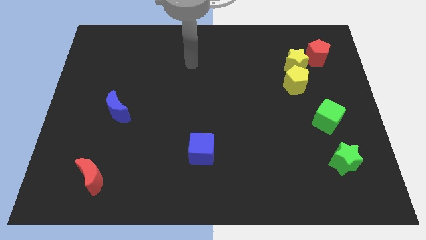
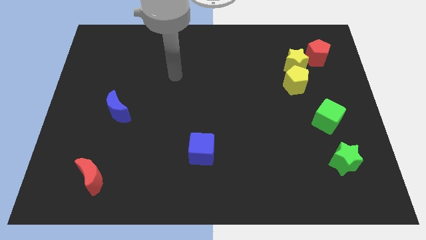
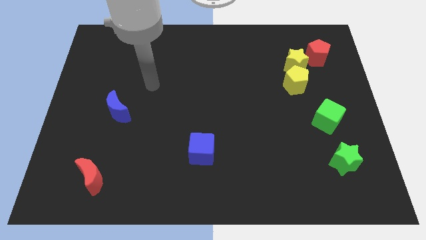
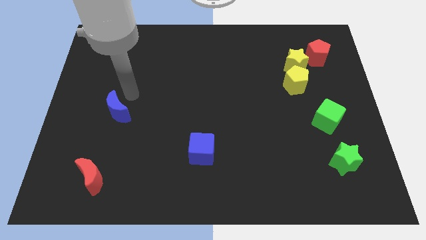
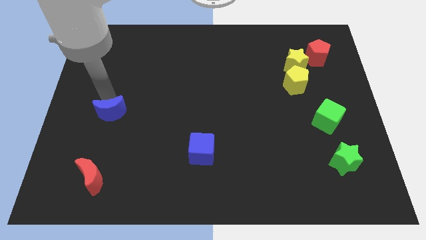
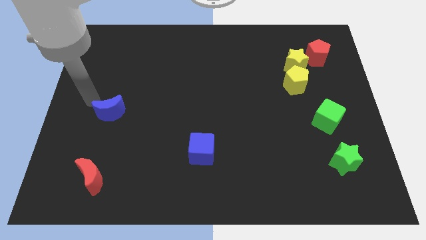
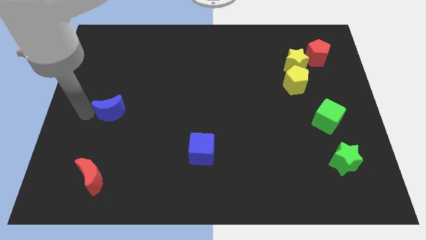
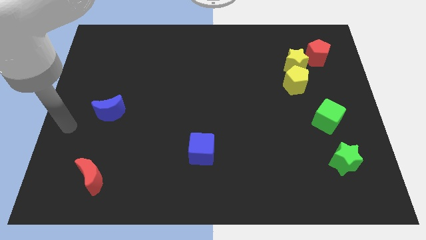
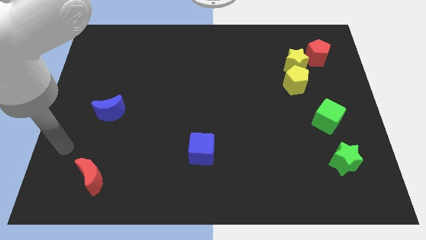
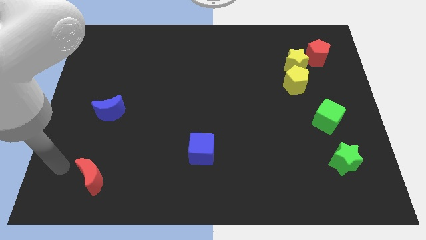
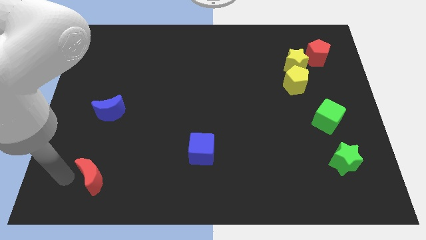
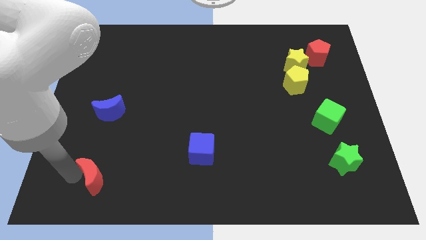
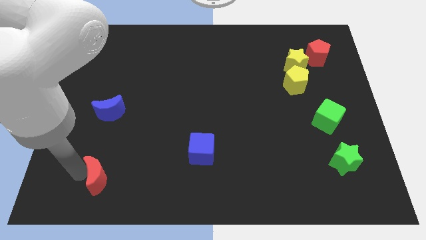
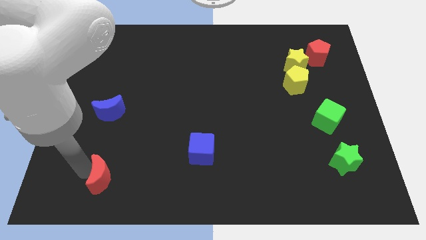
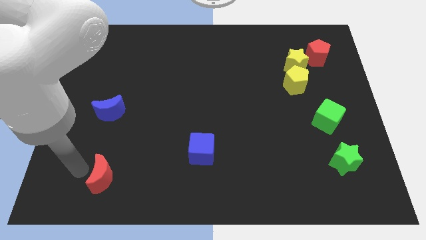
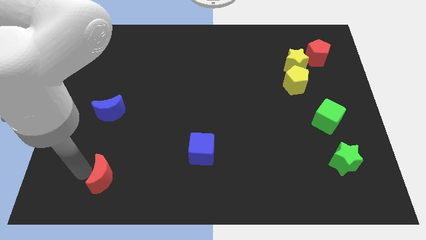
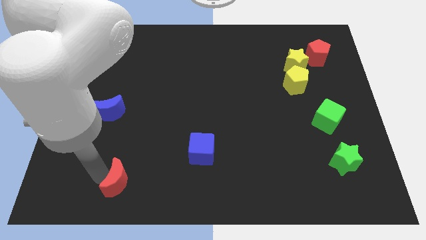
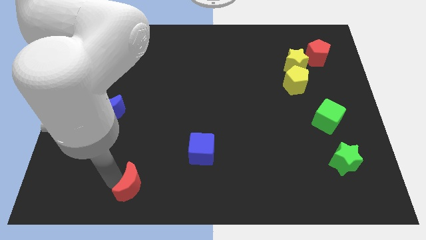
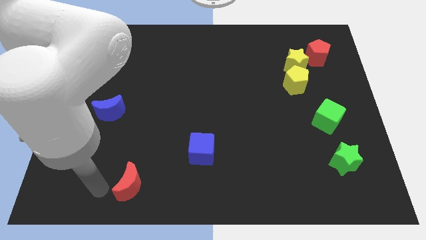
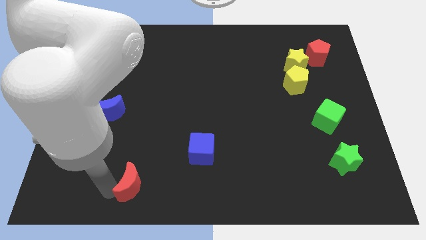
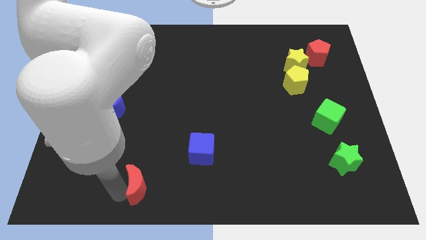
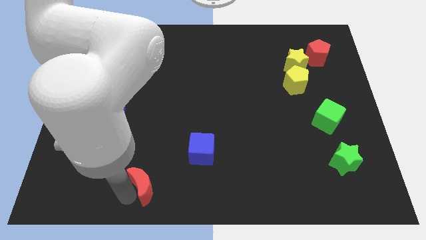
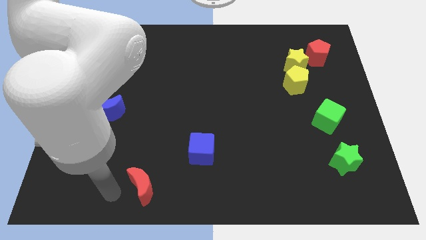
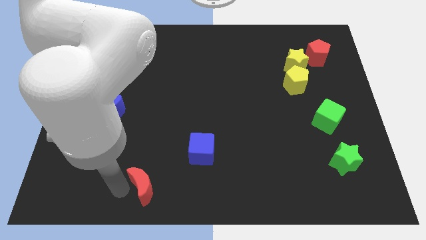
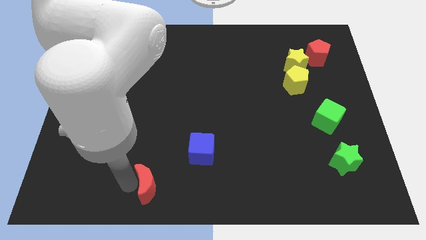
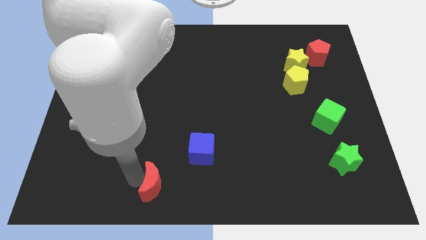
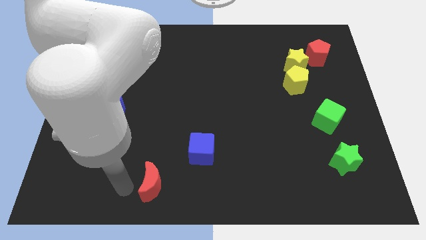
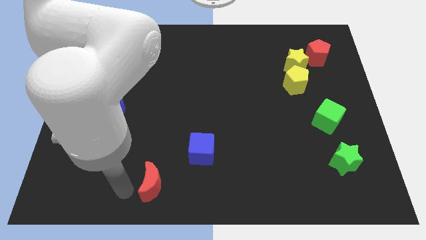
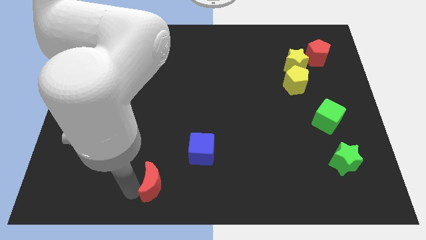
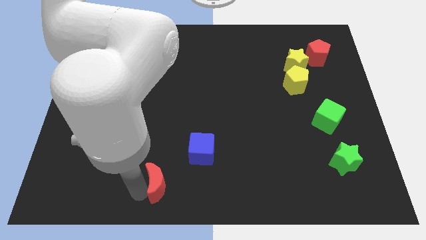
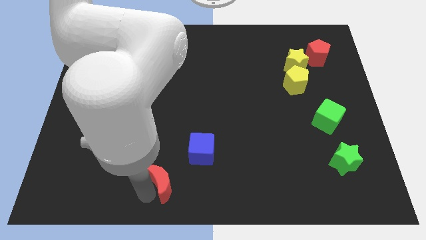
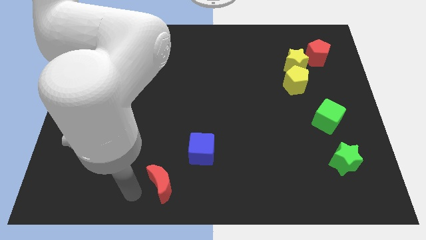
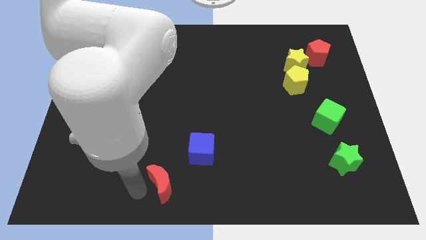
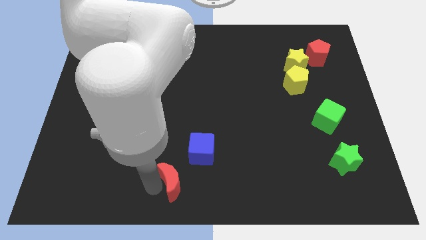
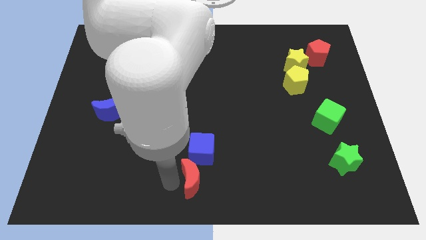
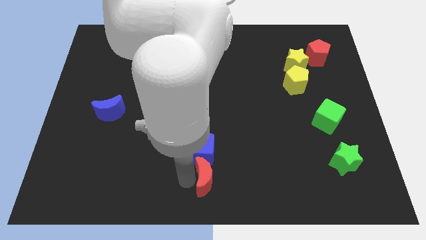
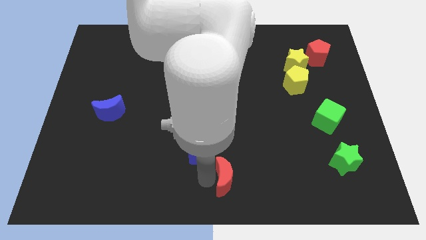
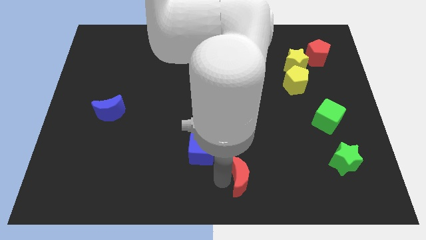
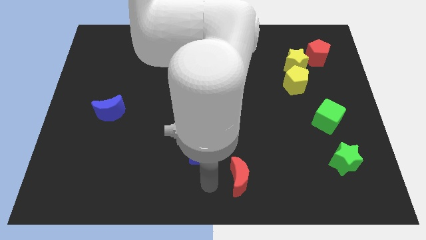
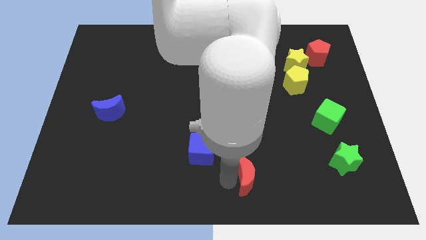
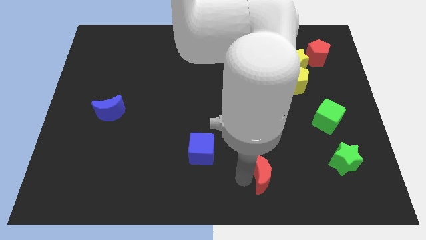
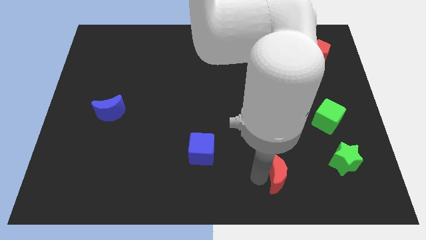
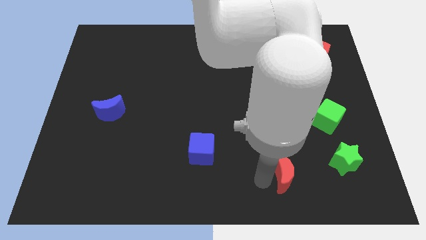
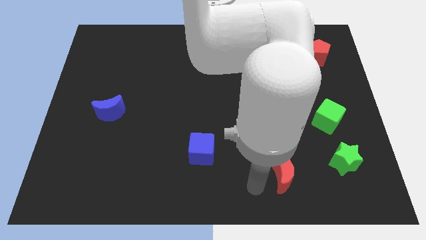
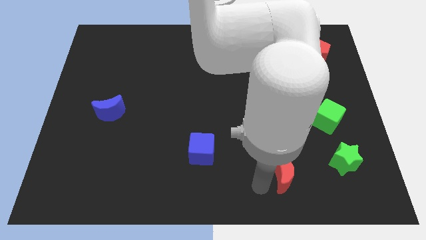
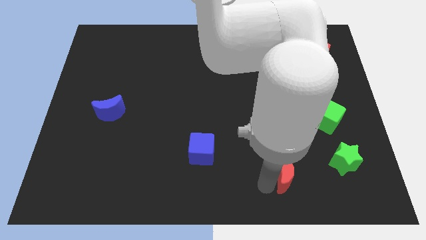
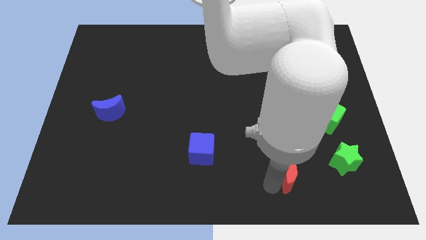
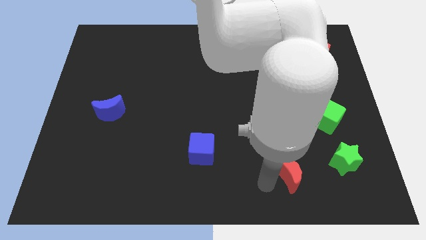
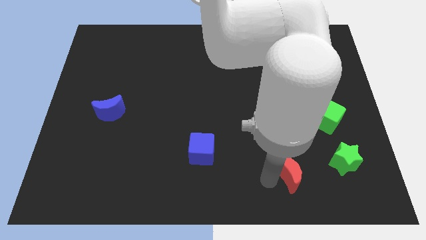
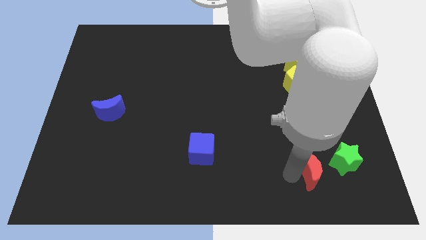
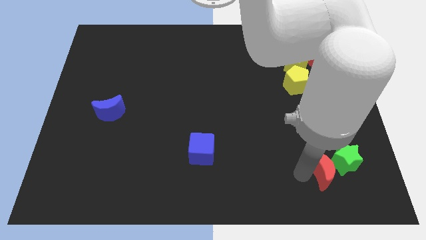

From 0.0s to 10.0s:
push the red moon close to the green star

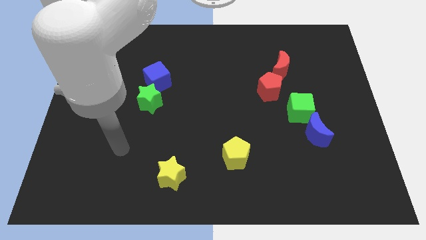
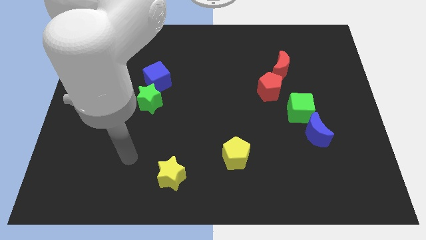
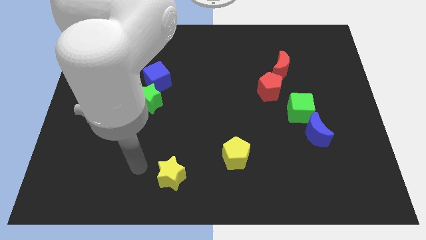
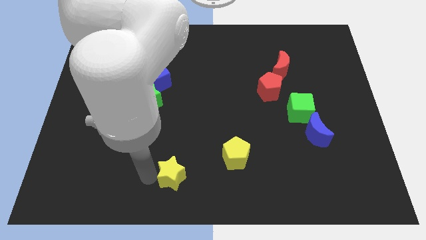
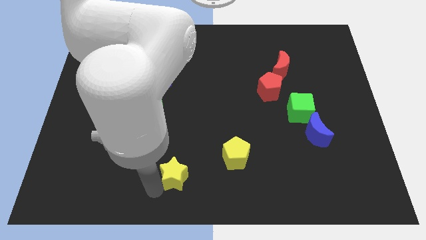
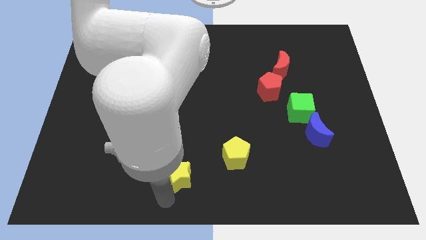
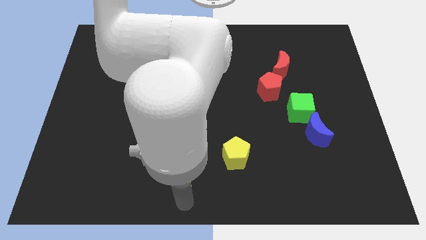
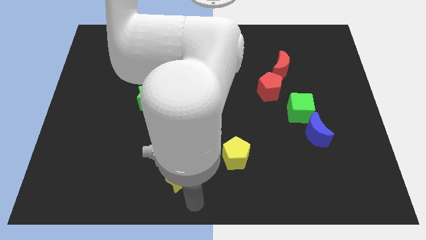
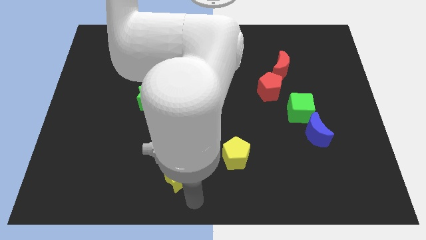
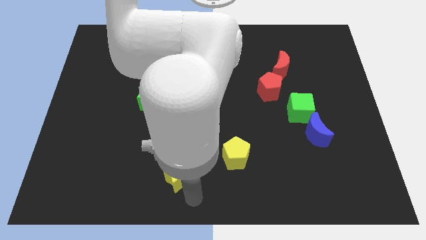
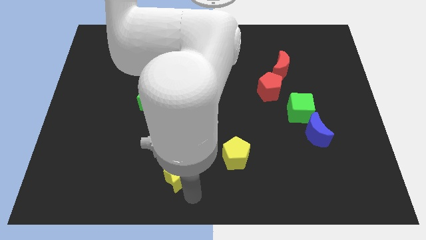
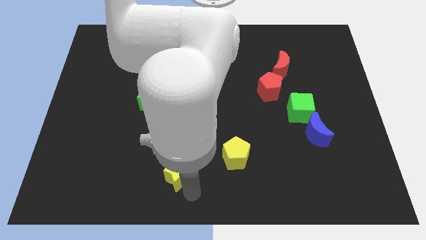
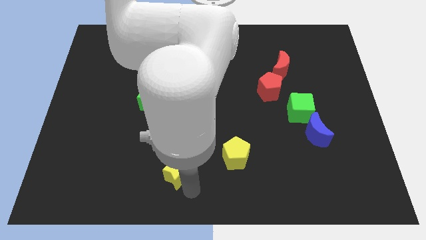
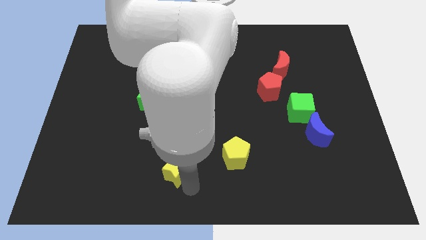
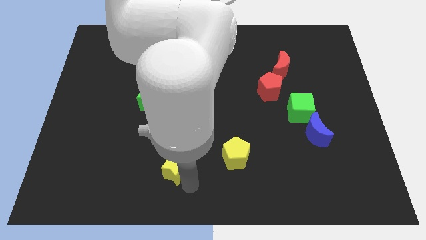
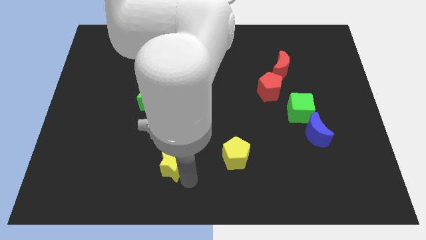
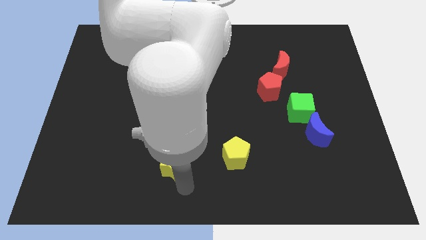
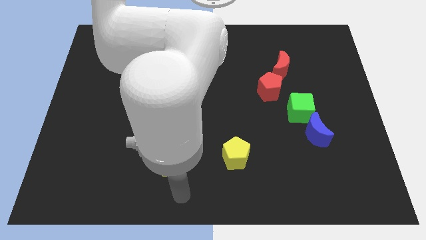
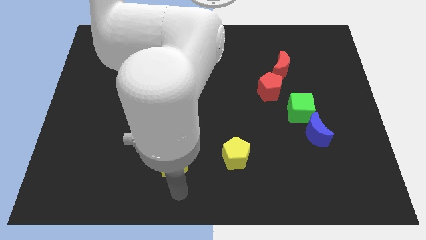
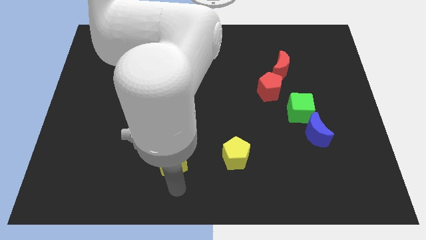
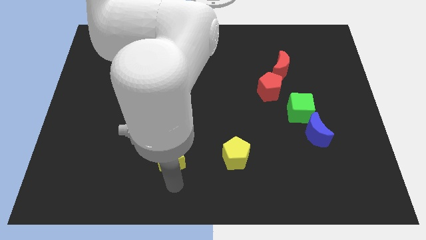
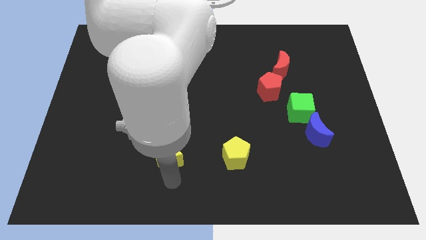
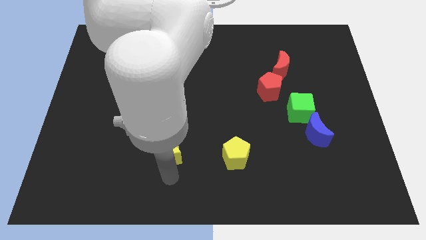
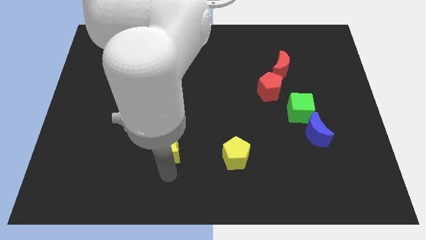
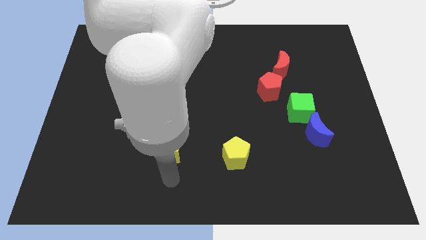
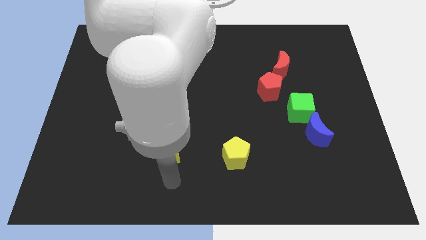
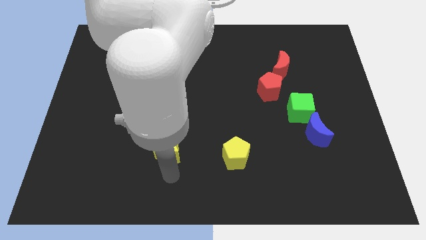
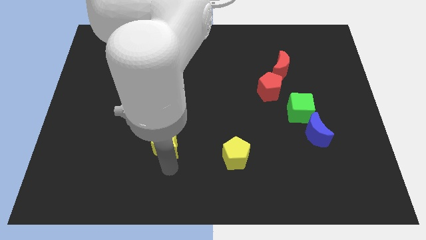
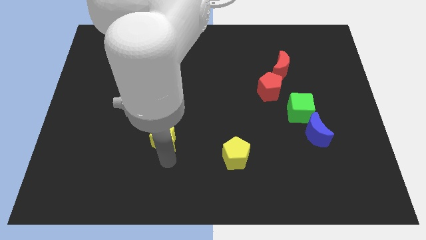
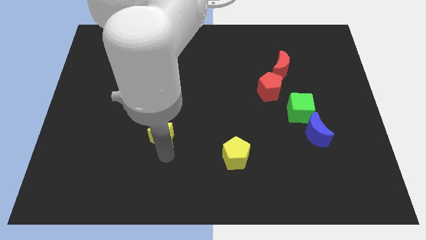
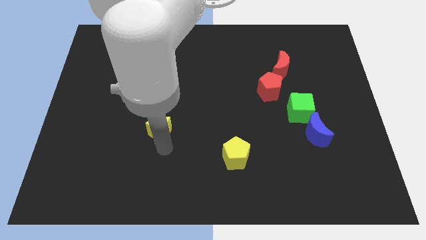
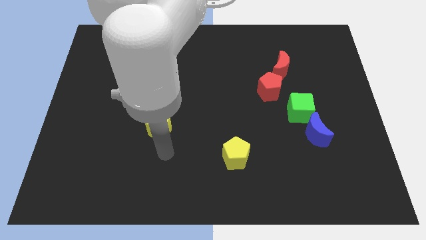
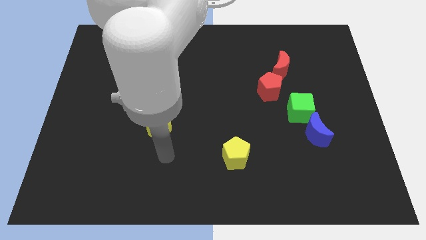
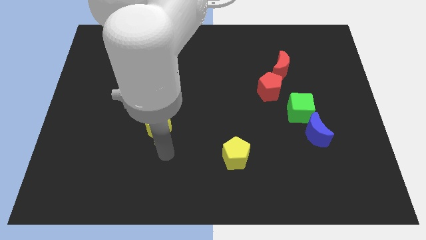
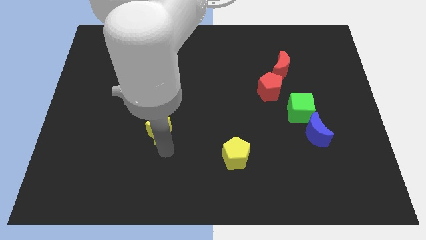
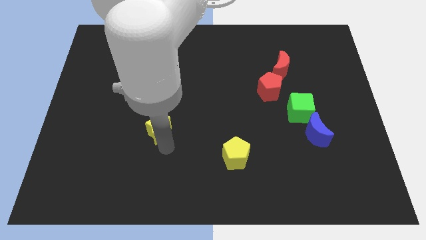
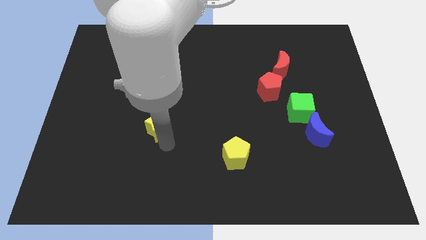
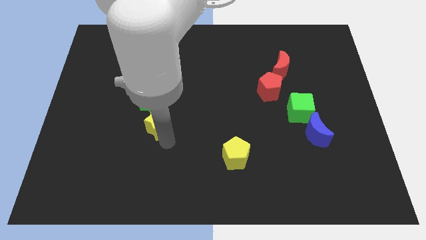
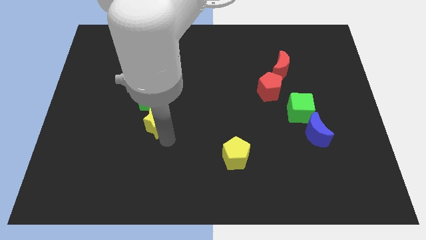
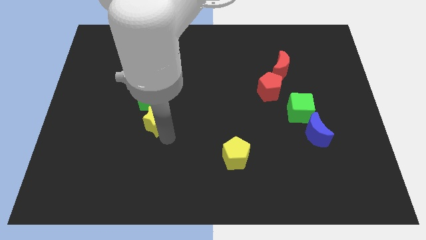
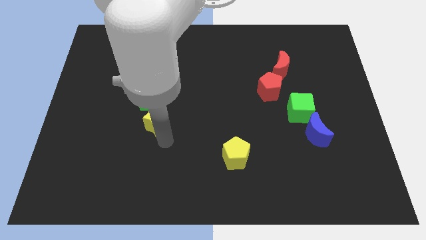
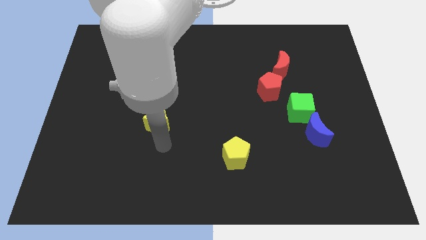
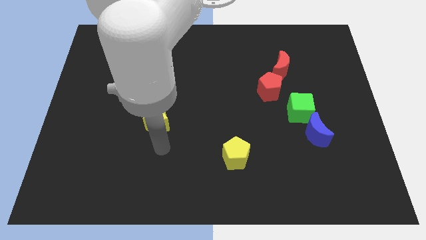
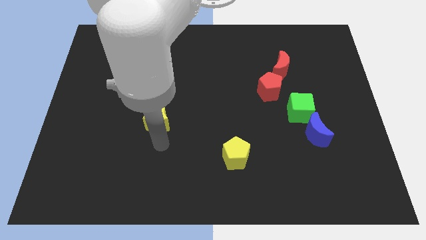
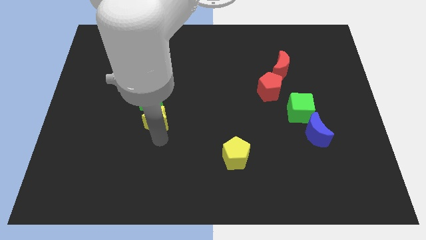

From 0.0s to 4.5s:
slide the yellow star next to the green star
